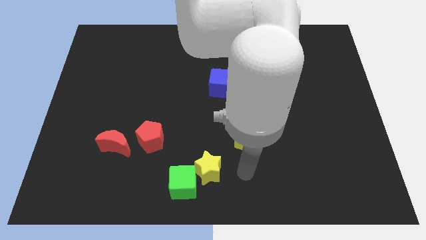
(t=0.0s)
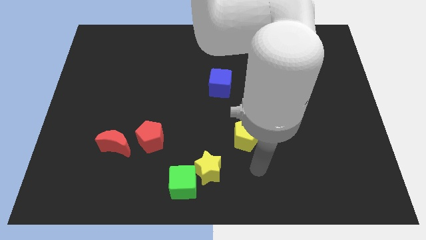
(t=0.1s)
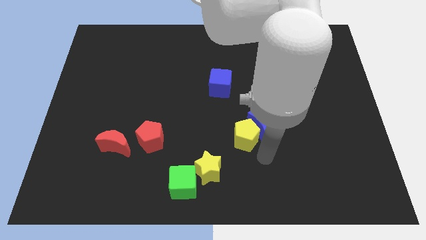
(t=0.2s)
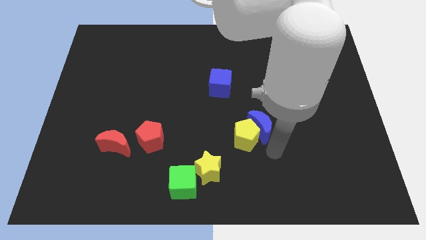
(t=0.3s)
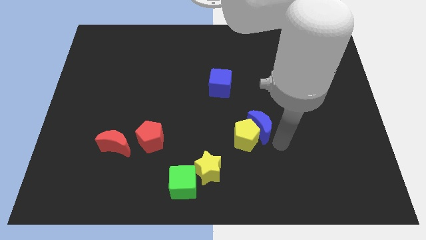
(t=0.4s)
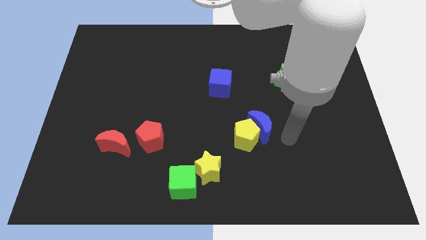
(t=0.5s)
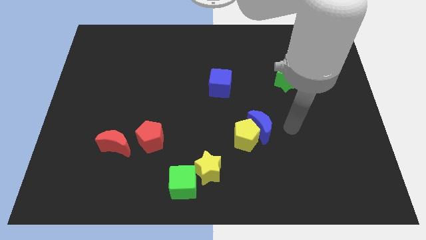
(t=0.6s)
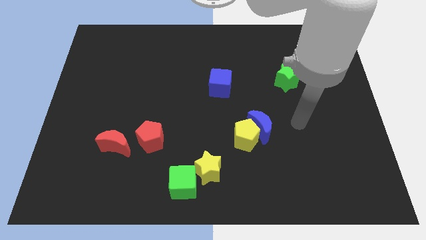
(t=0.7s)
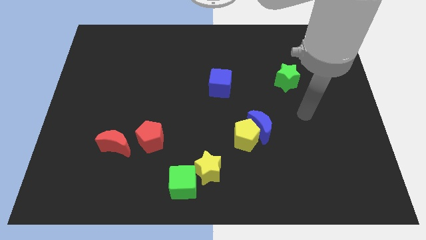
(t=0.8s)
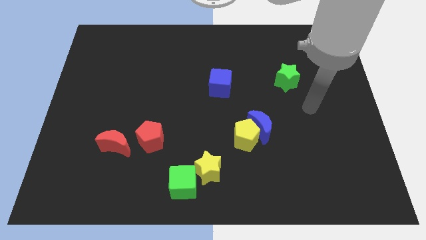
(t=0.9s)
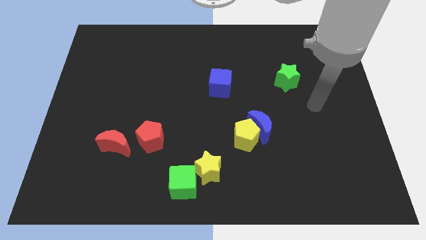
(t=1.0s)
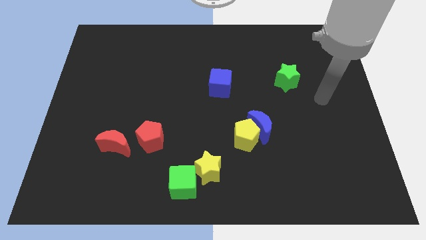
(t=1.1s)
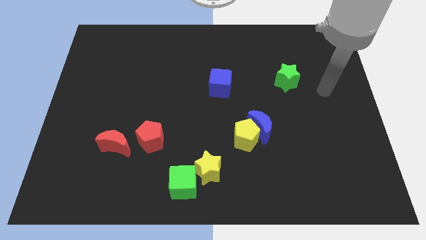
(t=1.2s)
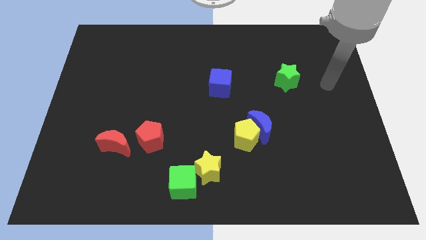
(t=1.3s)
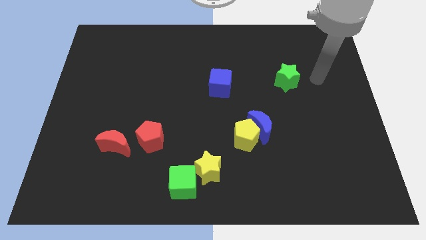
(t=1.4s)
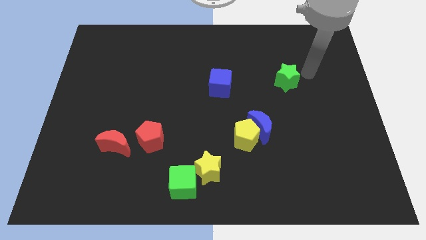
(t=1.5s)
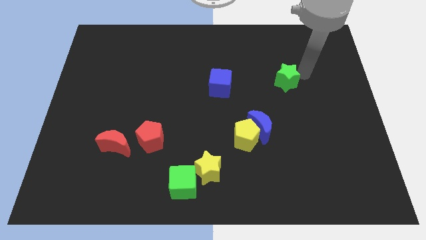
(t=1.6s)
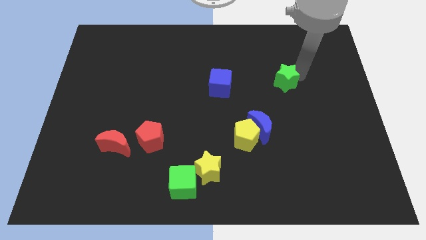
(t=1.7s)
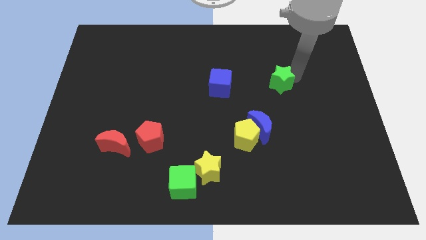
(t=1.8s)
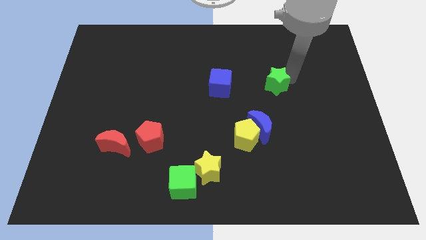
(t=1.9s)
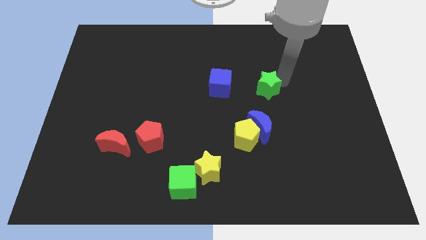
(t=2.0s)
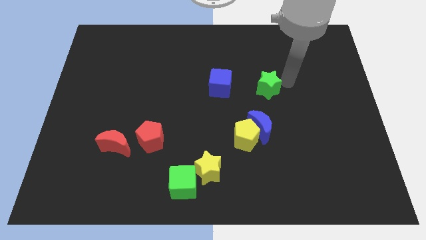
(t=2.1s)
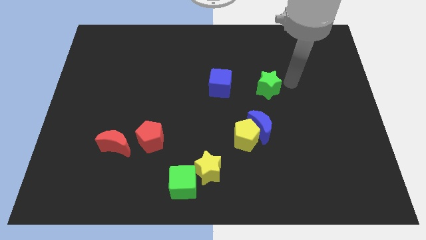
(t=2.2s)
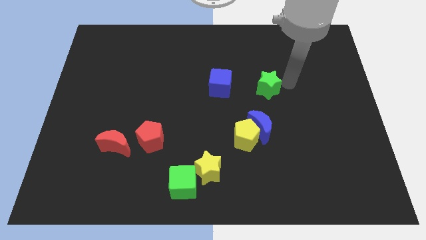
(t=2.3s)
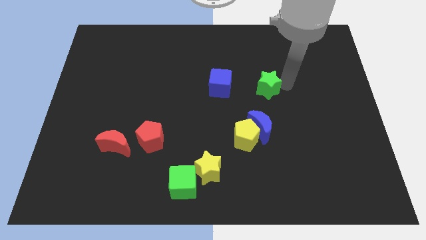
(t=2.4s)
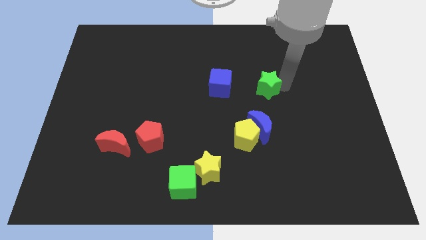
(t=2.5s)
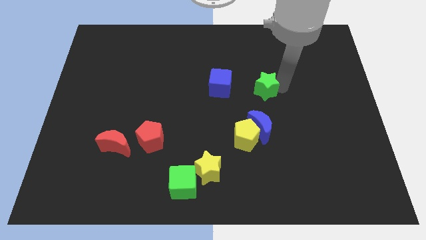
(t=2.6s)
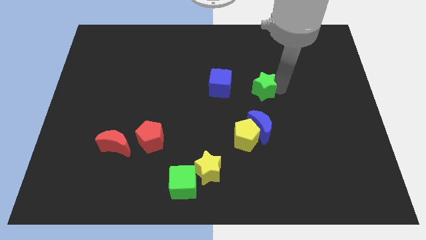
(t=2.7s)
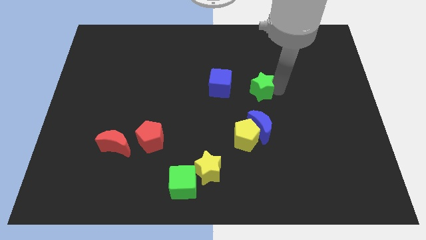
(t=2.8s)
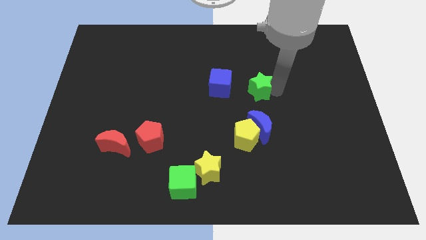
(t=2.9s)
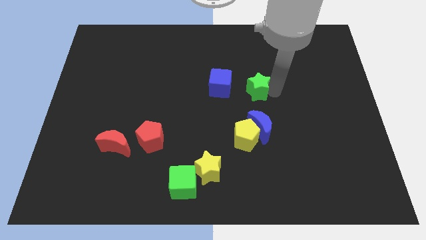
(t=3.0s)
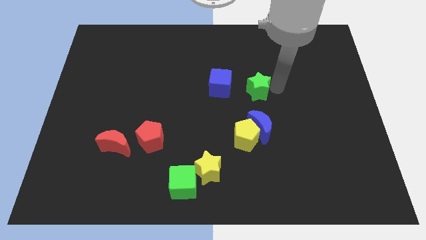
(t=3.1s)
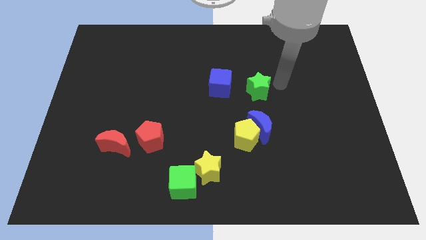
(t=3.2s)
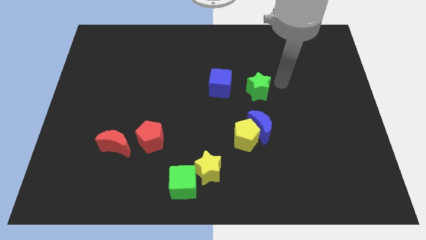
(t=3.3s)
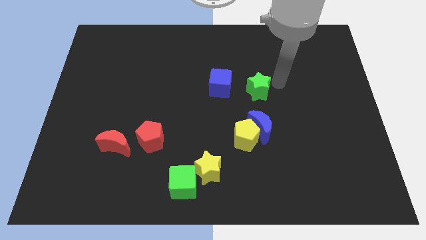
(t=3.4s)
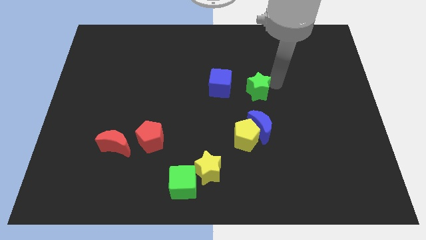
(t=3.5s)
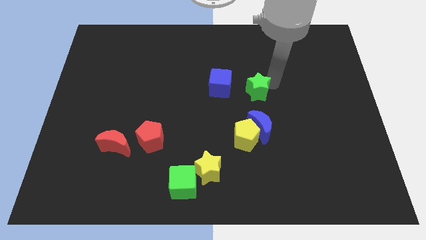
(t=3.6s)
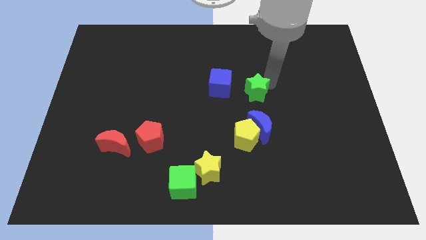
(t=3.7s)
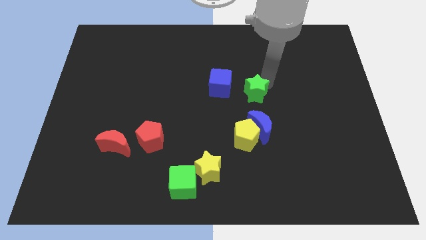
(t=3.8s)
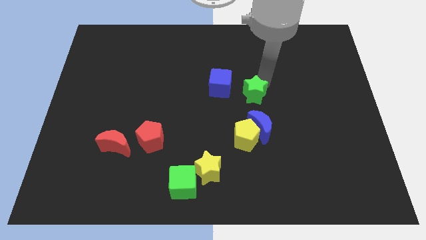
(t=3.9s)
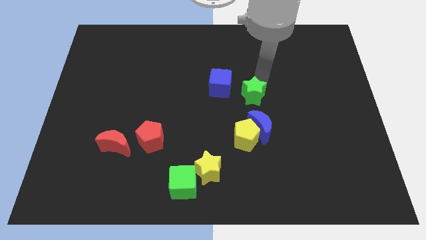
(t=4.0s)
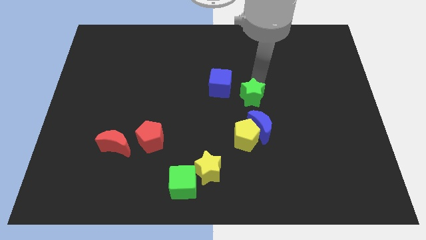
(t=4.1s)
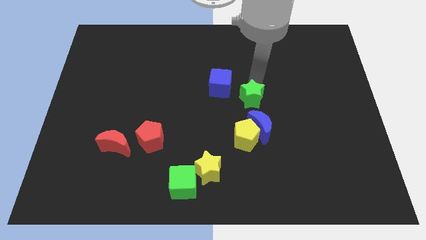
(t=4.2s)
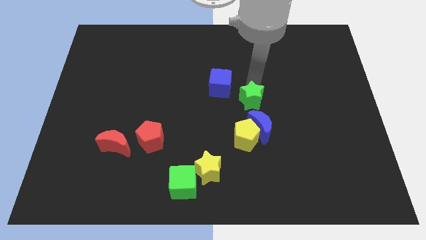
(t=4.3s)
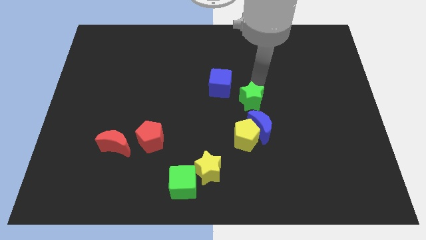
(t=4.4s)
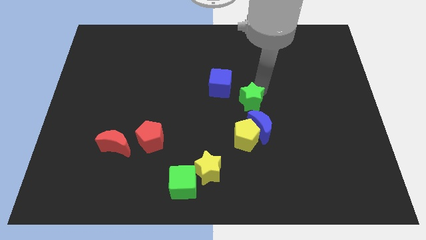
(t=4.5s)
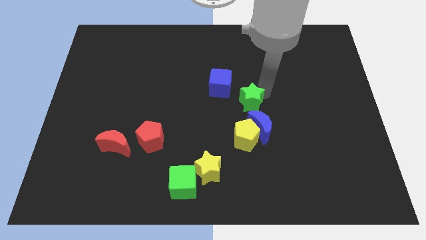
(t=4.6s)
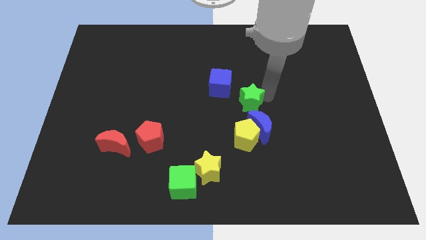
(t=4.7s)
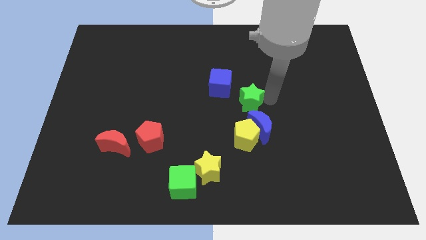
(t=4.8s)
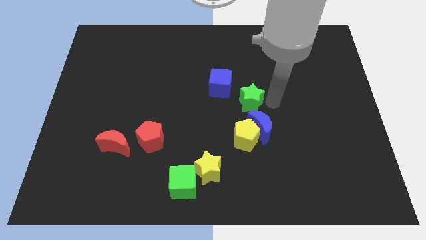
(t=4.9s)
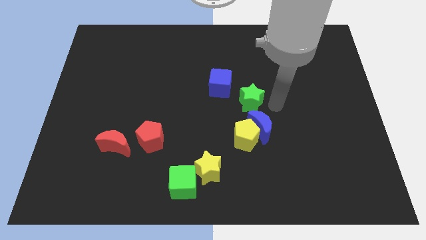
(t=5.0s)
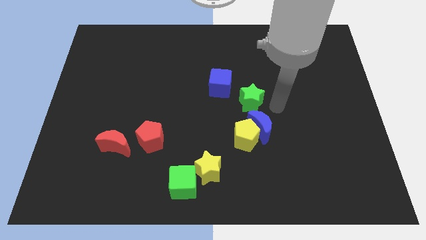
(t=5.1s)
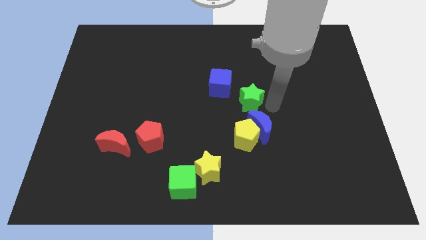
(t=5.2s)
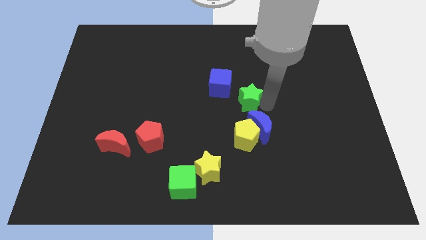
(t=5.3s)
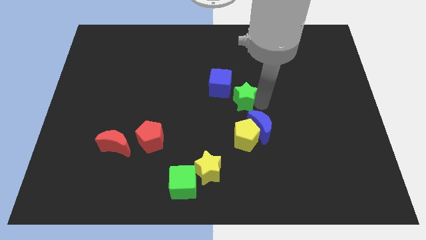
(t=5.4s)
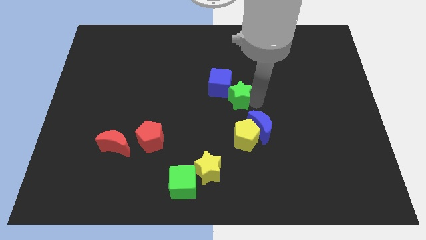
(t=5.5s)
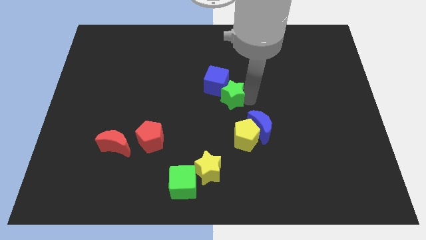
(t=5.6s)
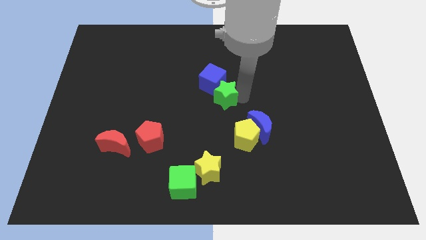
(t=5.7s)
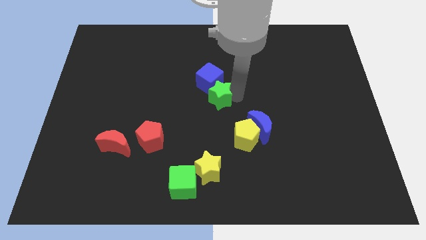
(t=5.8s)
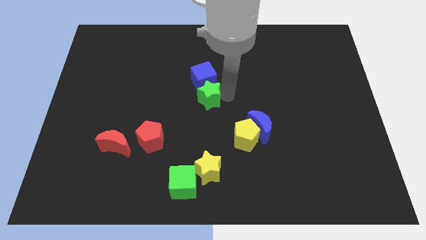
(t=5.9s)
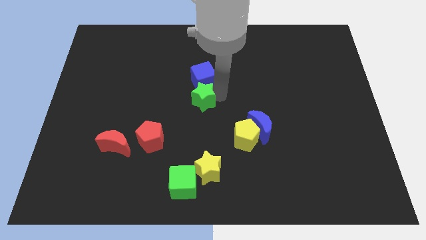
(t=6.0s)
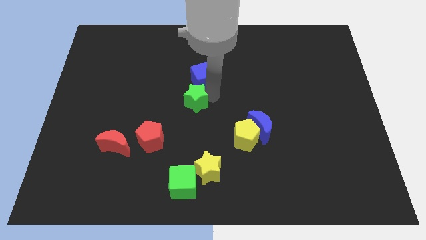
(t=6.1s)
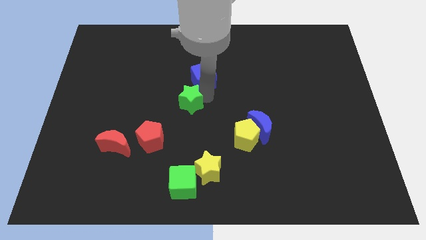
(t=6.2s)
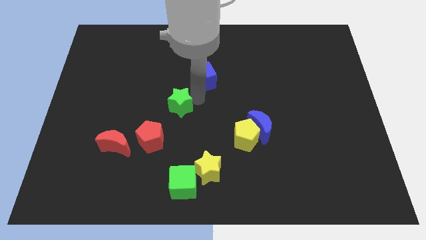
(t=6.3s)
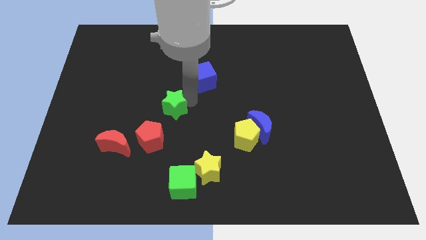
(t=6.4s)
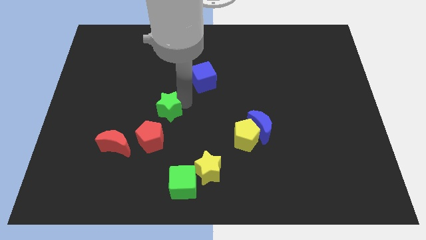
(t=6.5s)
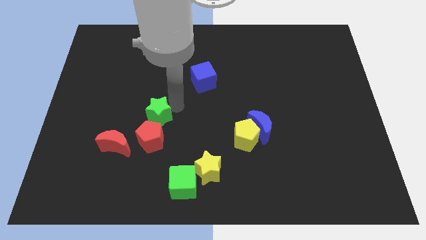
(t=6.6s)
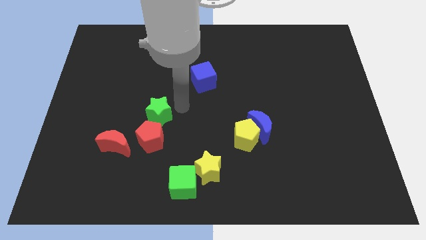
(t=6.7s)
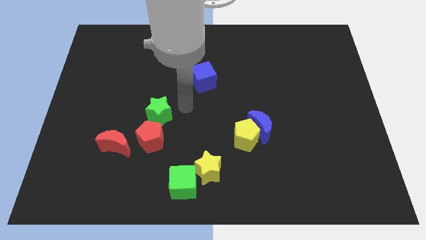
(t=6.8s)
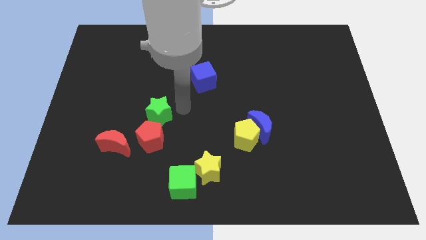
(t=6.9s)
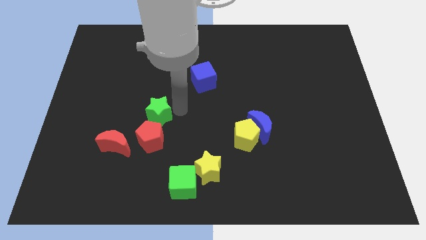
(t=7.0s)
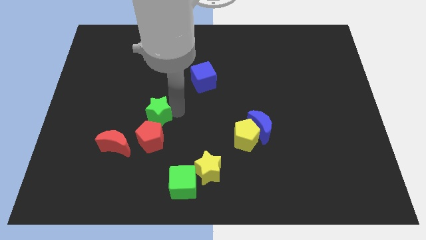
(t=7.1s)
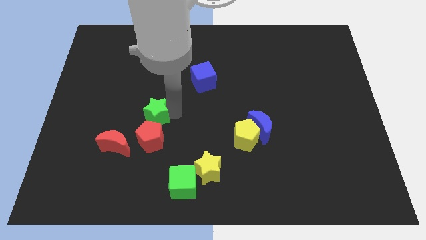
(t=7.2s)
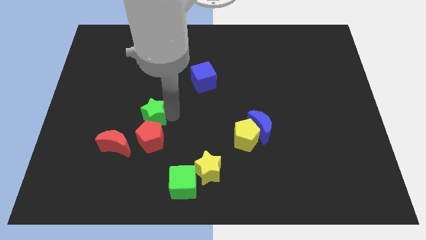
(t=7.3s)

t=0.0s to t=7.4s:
slide the green star to the top left of the red pentagon

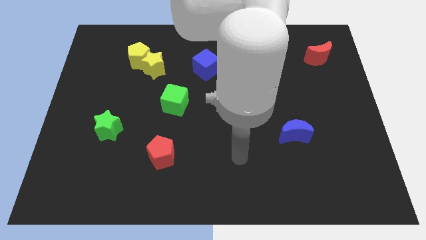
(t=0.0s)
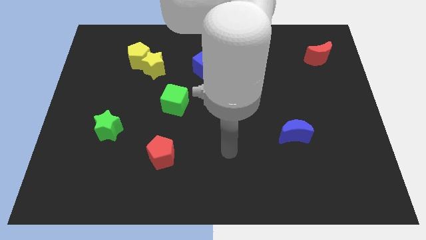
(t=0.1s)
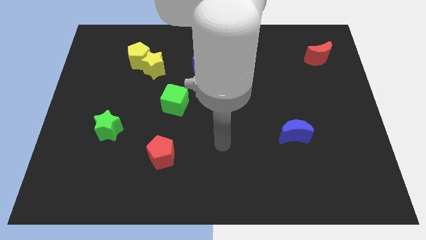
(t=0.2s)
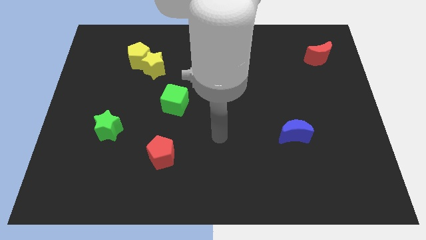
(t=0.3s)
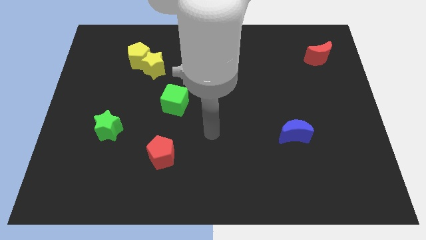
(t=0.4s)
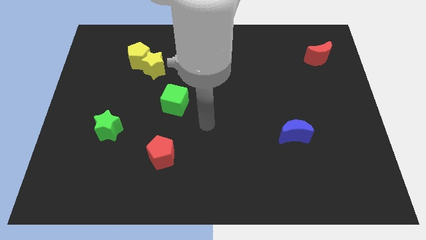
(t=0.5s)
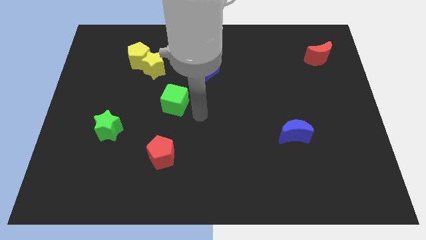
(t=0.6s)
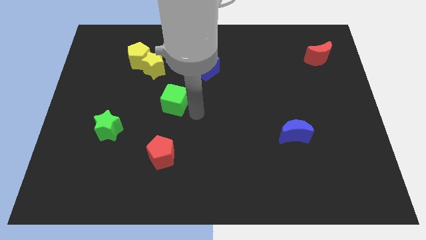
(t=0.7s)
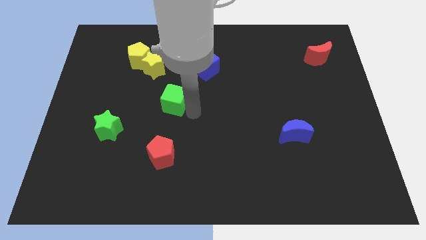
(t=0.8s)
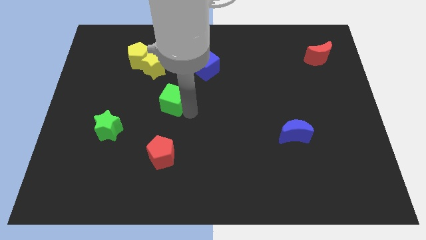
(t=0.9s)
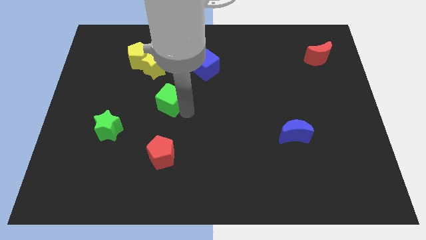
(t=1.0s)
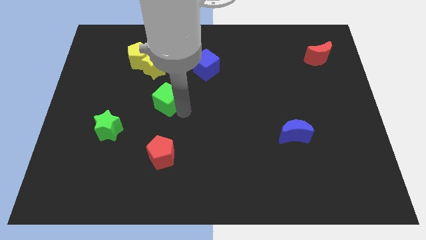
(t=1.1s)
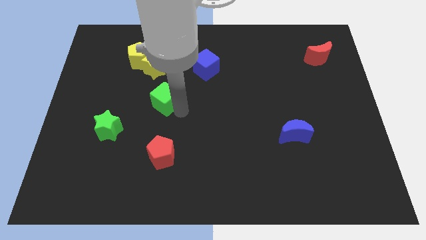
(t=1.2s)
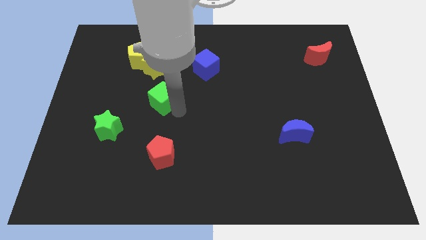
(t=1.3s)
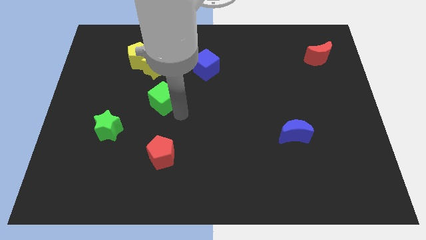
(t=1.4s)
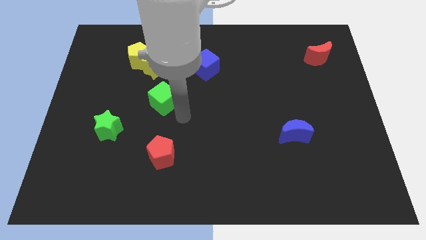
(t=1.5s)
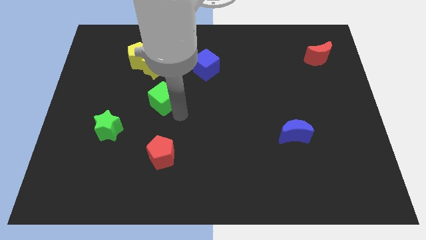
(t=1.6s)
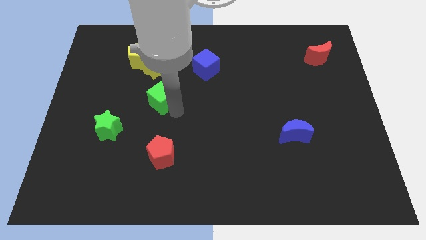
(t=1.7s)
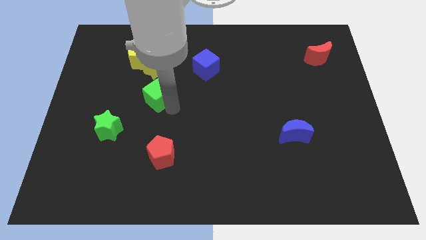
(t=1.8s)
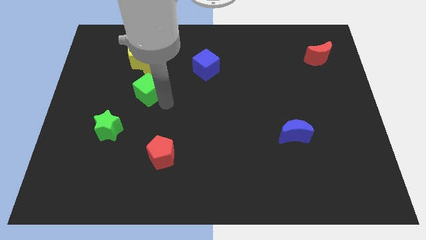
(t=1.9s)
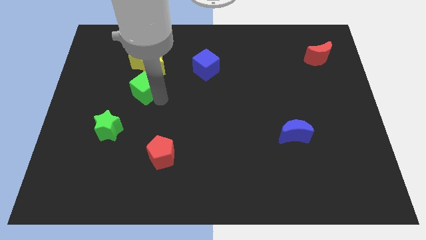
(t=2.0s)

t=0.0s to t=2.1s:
move the green cube to the bottom left of the yellow star
